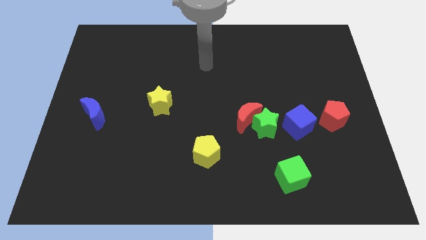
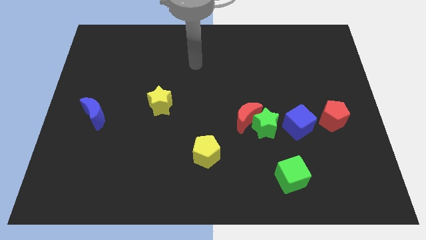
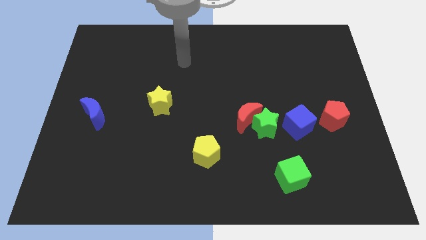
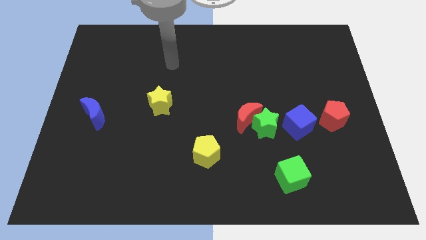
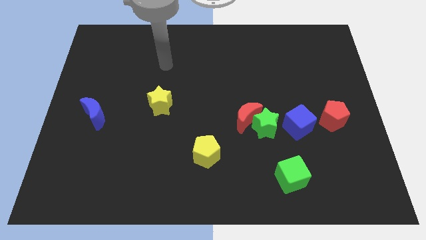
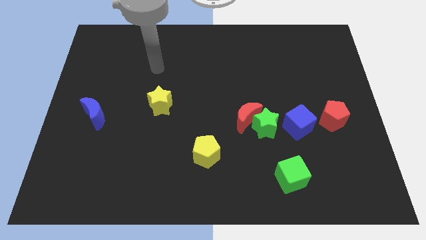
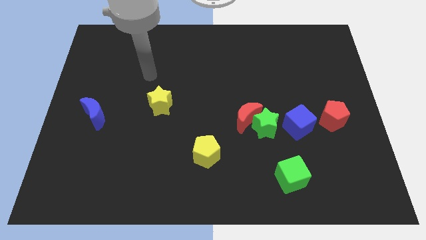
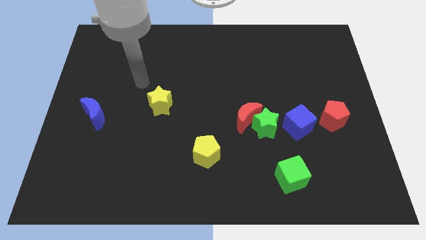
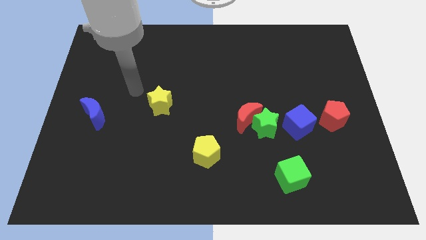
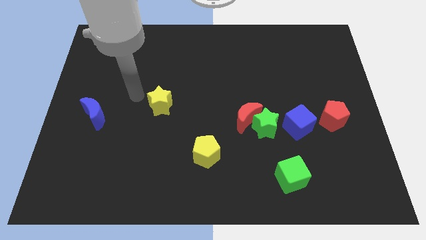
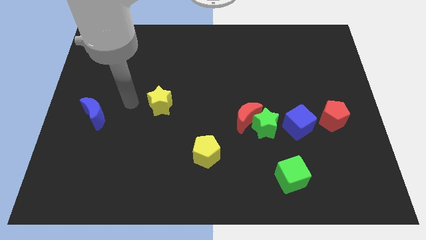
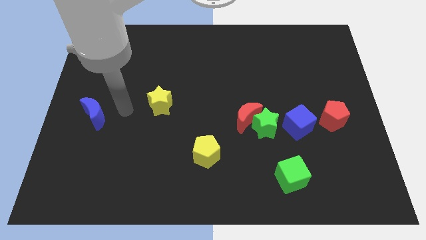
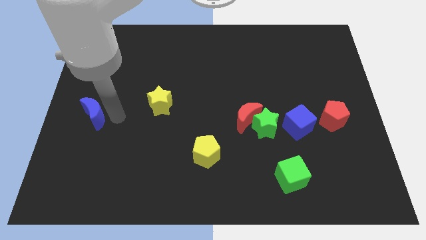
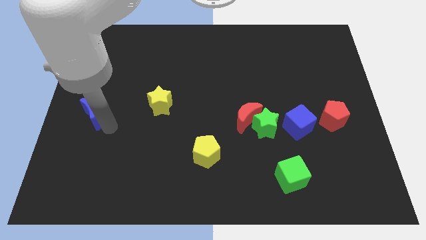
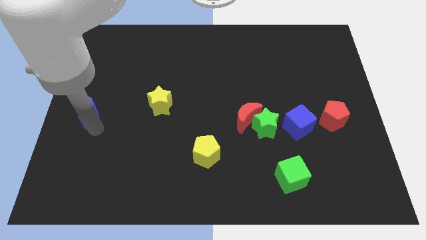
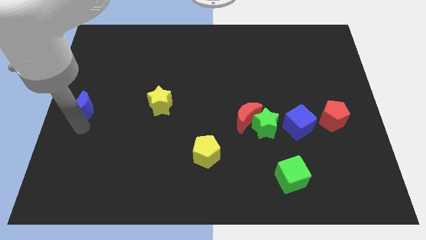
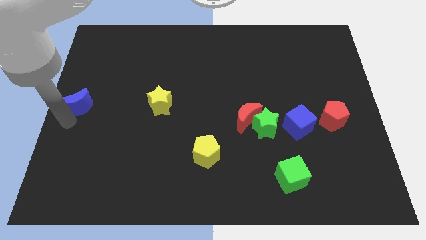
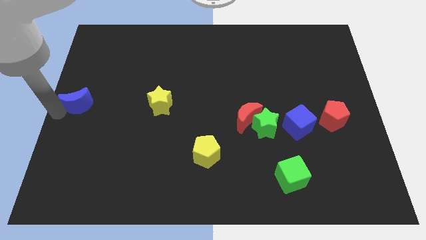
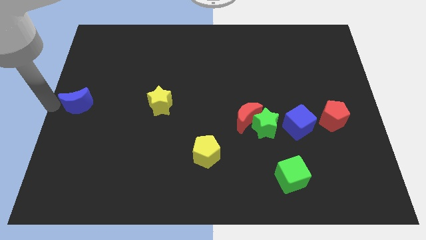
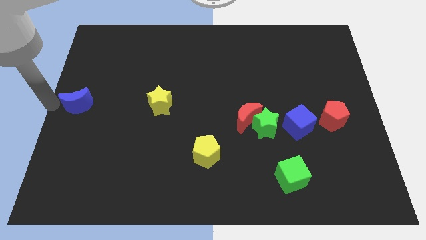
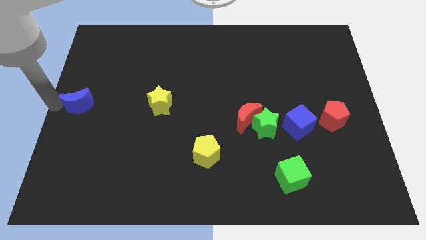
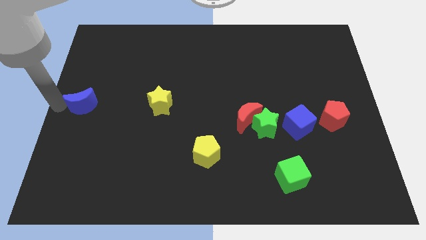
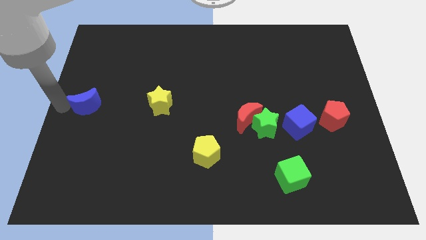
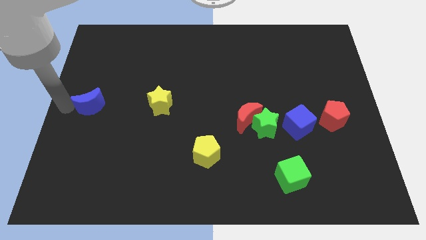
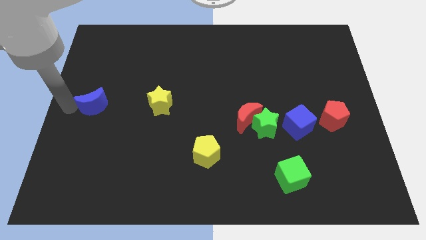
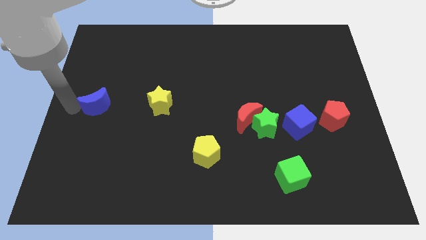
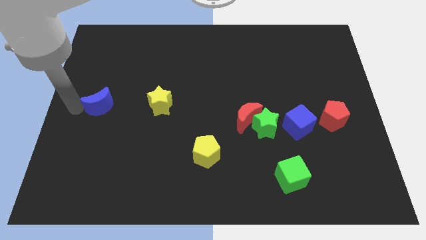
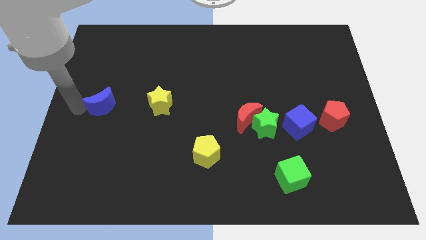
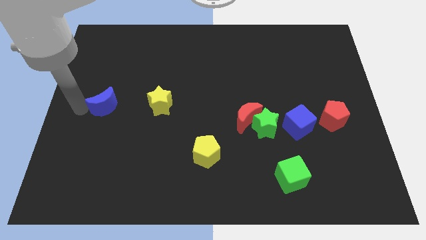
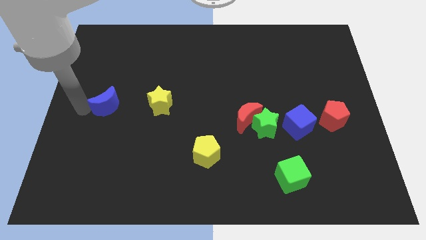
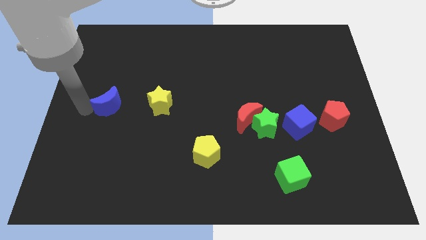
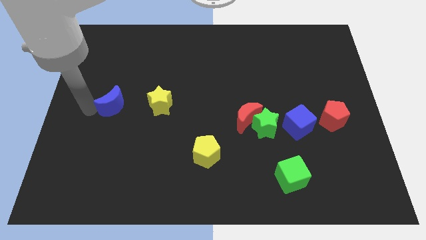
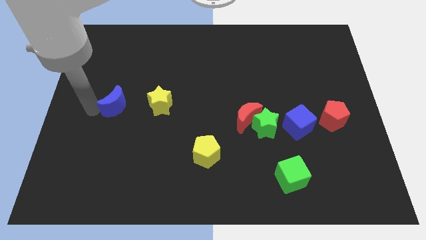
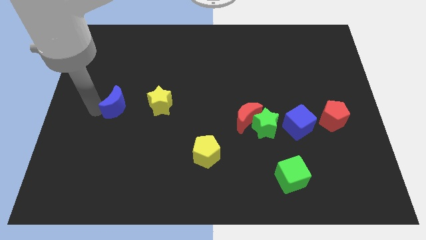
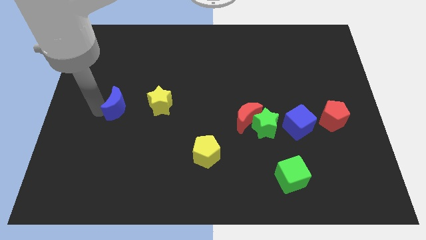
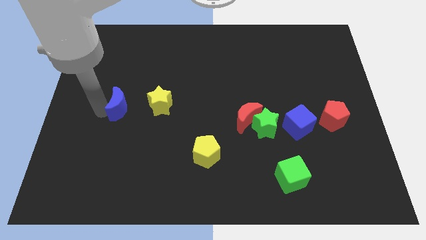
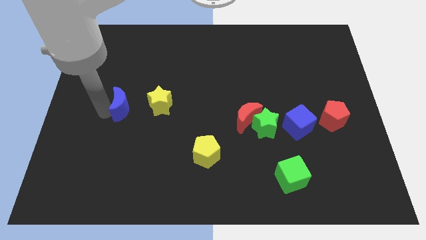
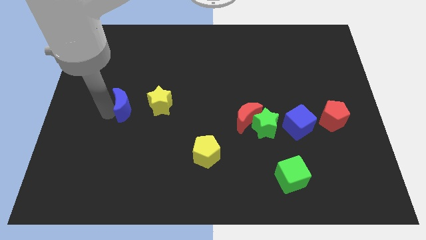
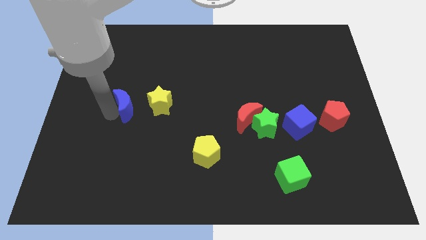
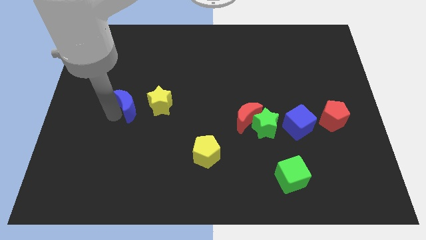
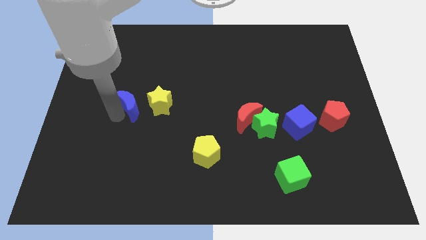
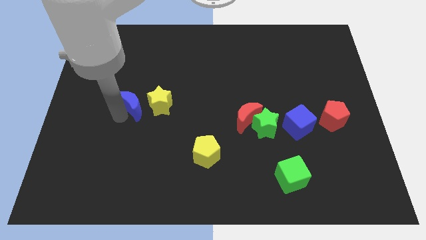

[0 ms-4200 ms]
slightly push the blue moon up and to the right diagonally

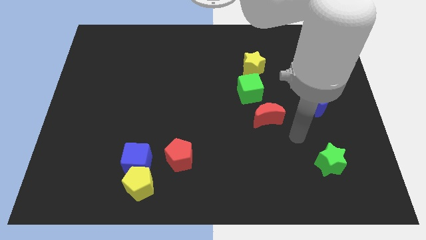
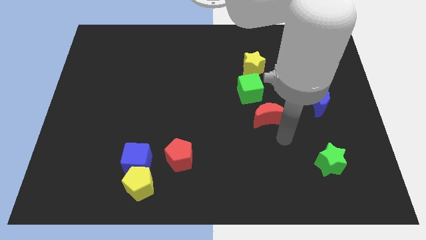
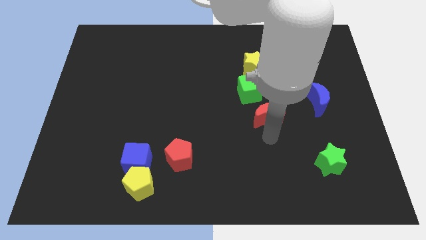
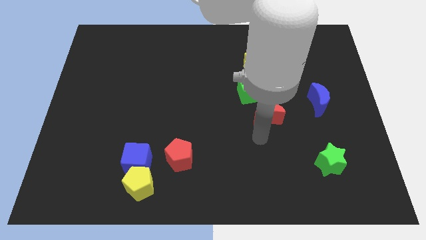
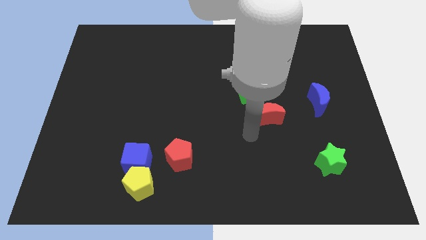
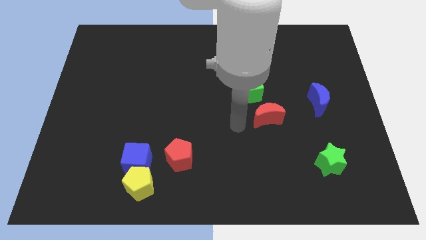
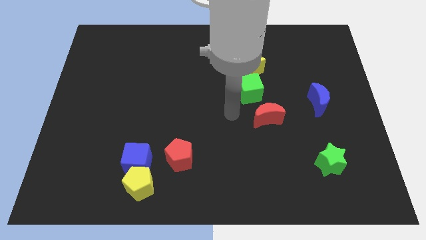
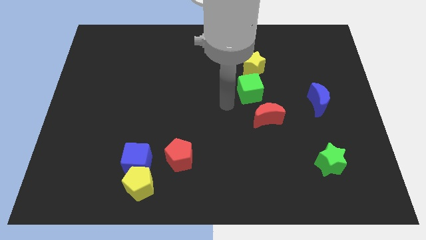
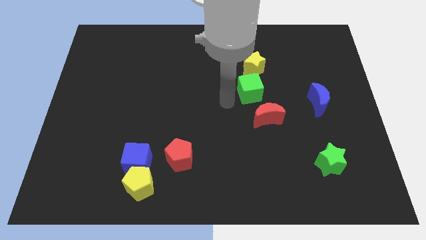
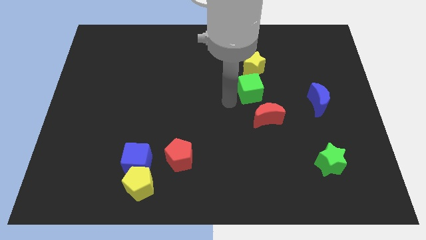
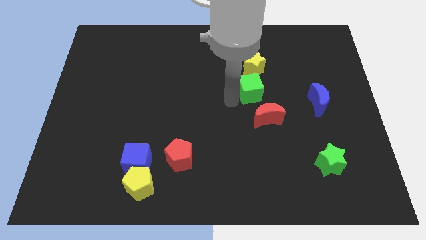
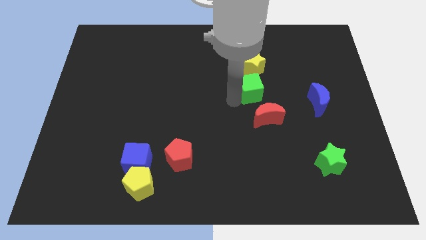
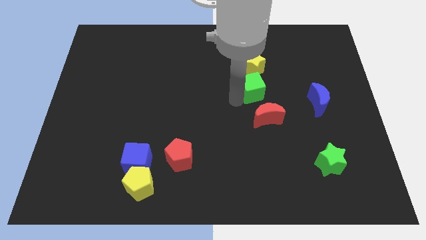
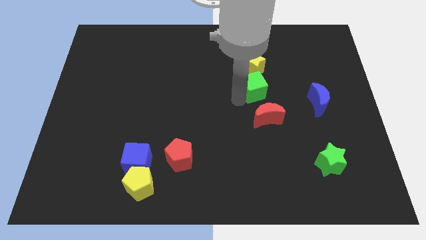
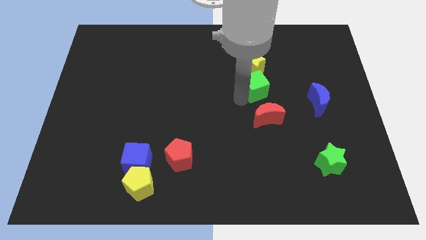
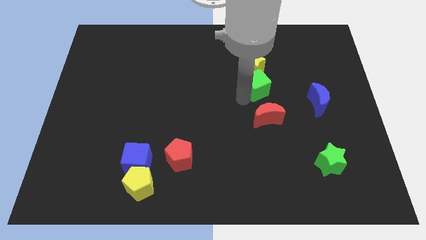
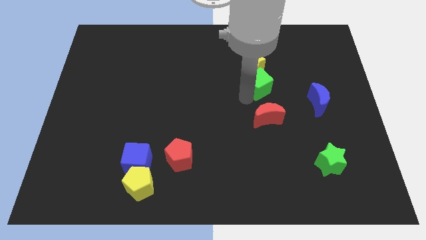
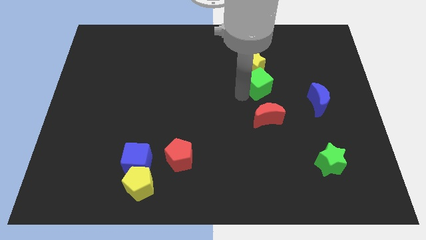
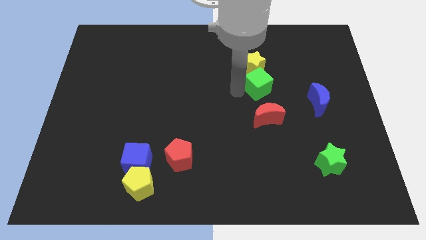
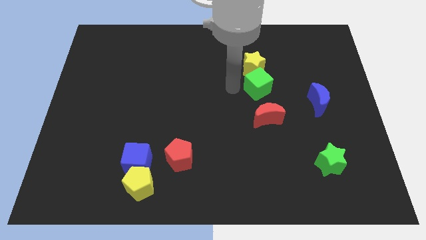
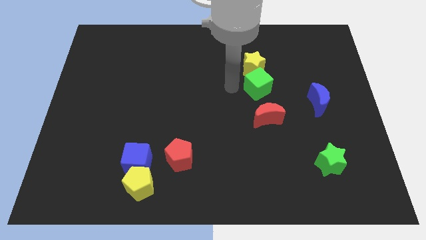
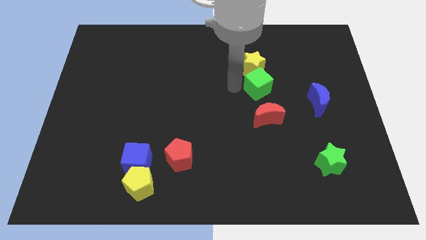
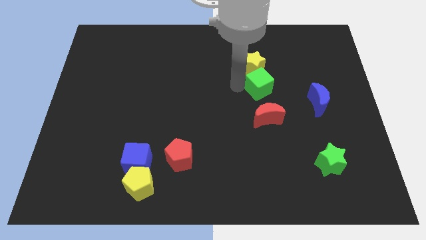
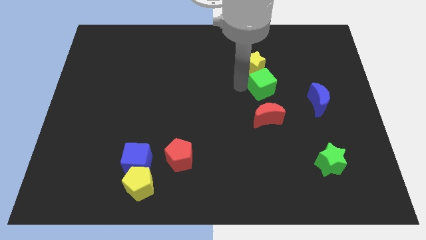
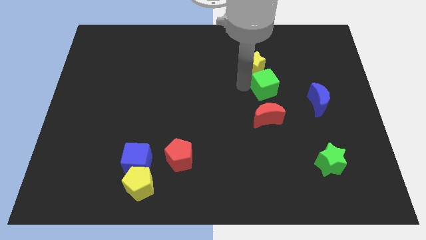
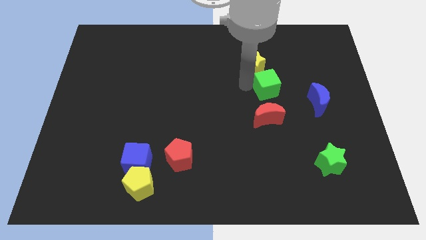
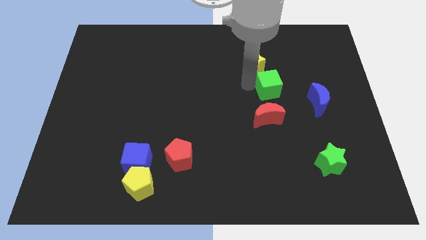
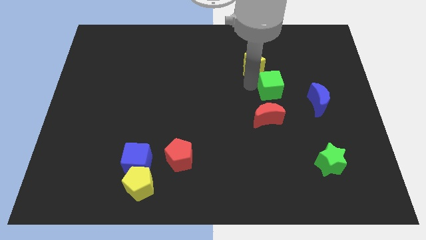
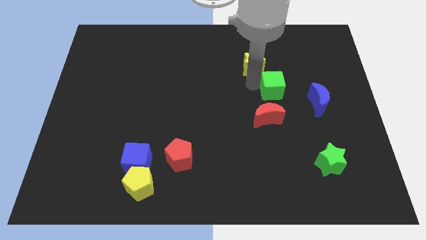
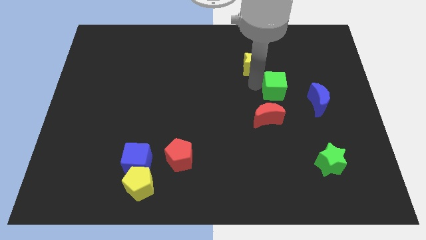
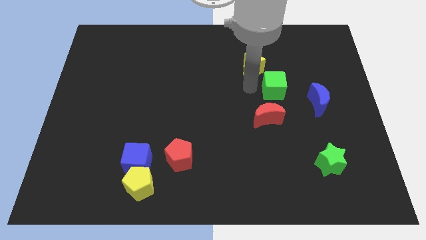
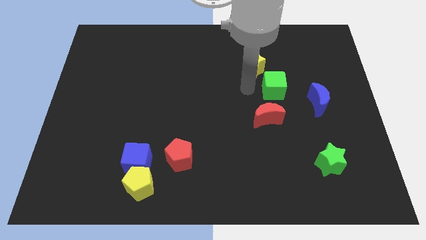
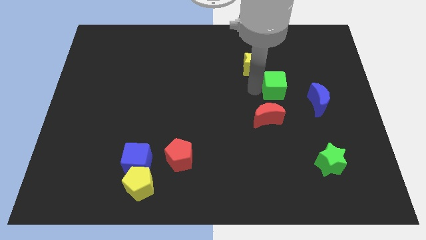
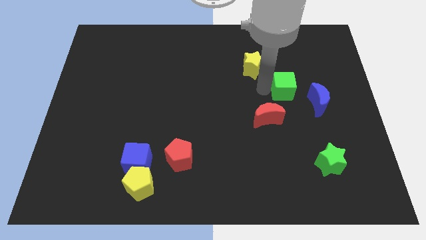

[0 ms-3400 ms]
slide the green cube a little right
